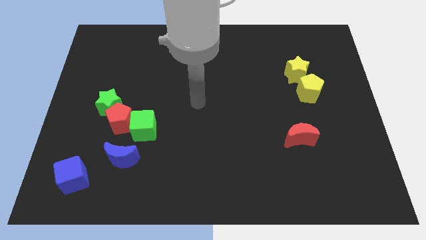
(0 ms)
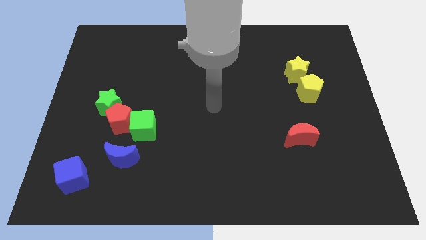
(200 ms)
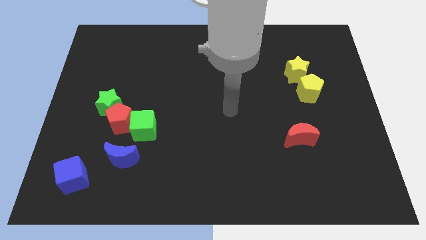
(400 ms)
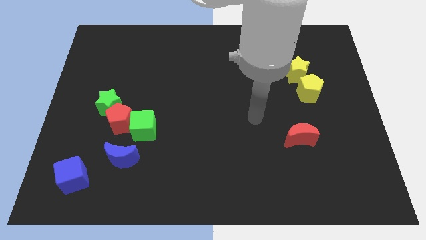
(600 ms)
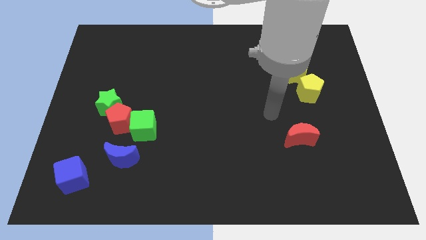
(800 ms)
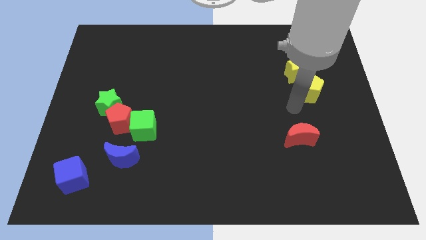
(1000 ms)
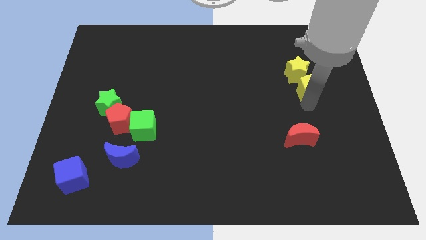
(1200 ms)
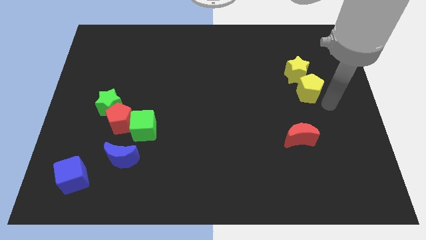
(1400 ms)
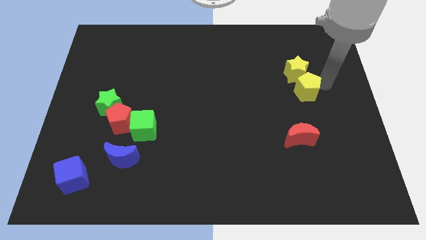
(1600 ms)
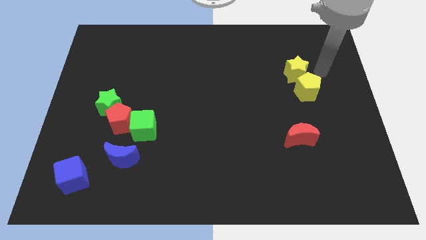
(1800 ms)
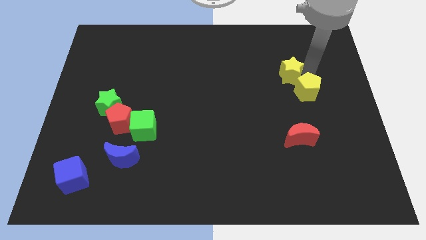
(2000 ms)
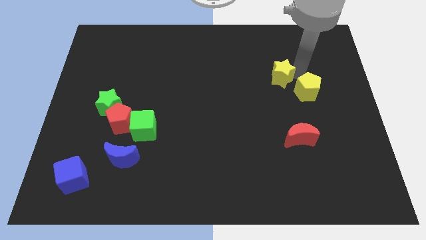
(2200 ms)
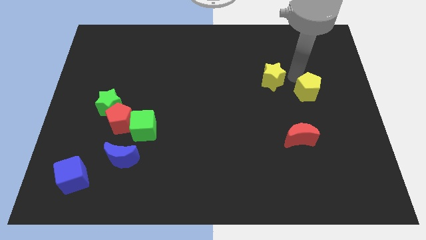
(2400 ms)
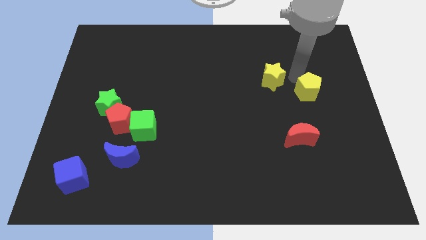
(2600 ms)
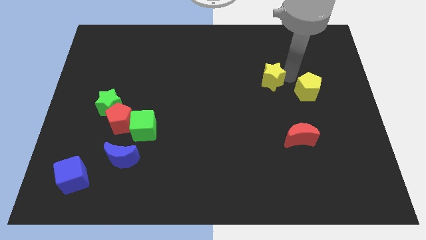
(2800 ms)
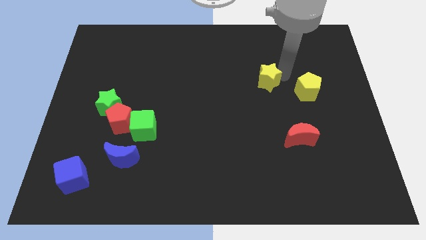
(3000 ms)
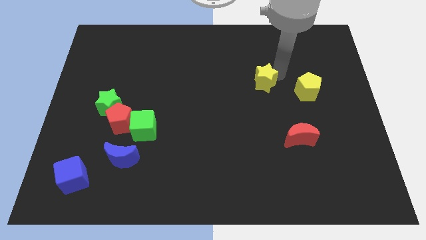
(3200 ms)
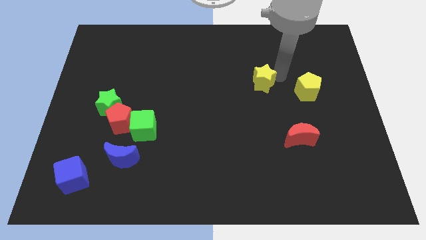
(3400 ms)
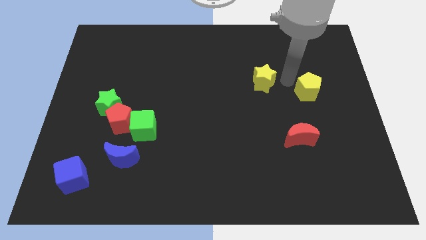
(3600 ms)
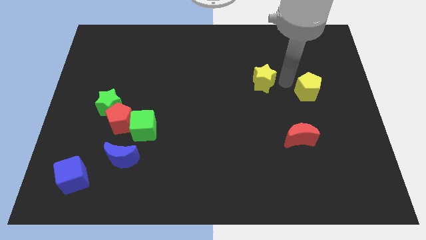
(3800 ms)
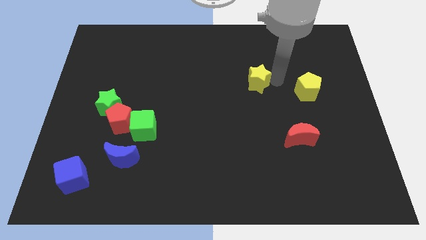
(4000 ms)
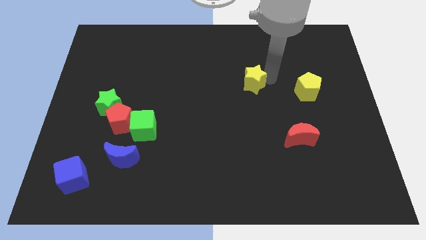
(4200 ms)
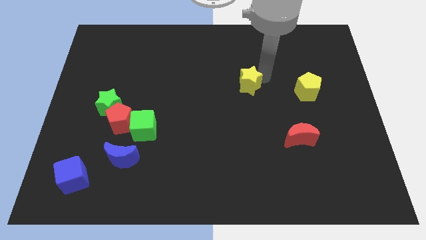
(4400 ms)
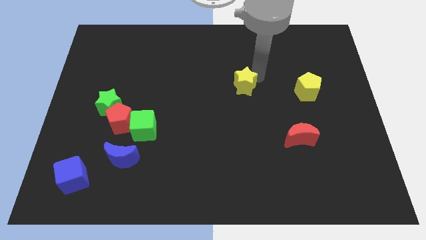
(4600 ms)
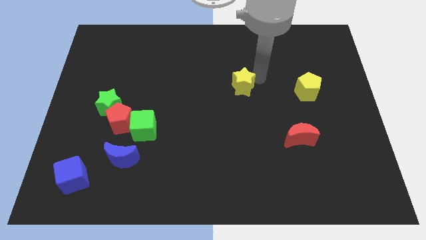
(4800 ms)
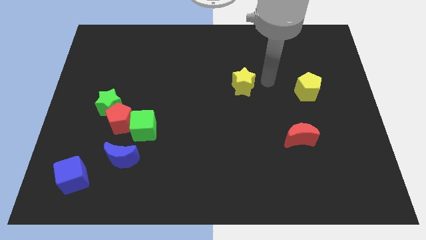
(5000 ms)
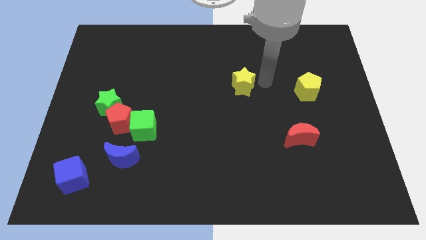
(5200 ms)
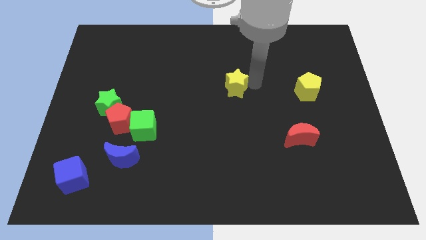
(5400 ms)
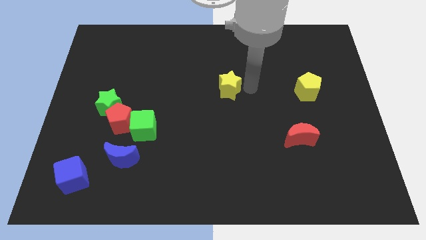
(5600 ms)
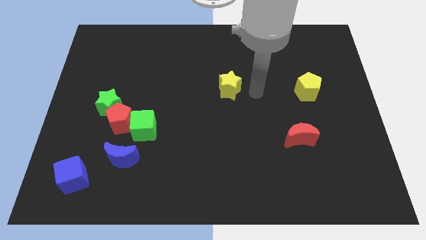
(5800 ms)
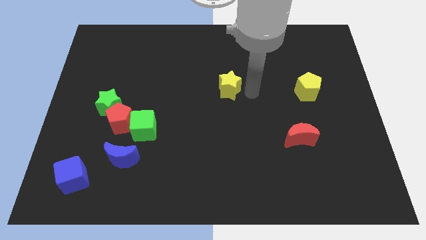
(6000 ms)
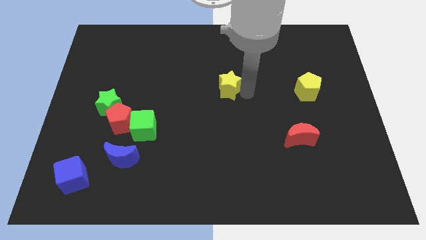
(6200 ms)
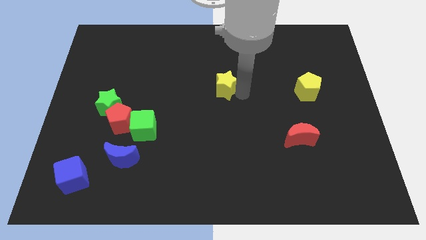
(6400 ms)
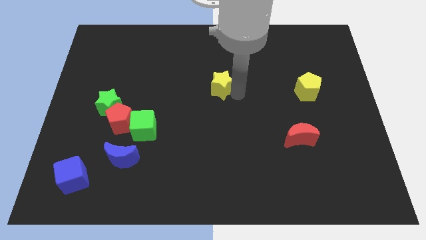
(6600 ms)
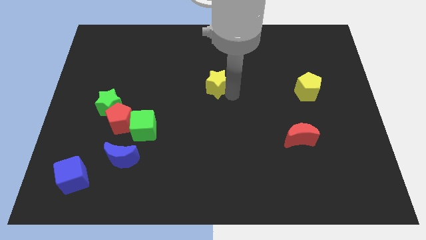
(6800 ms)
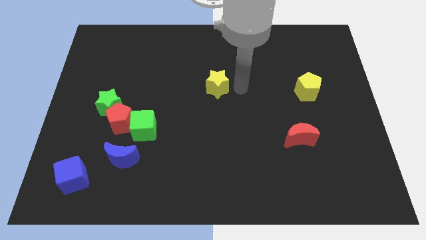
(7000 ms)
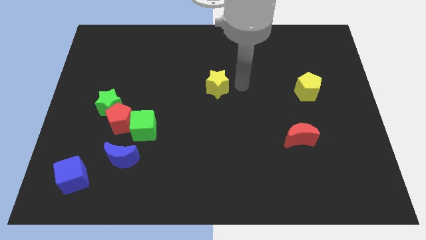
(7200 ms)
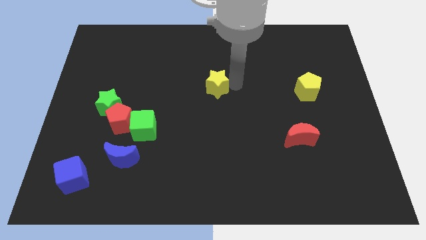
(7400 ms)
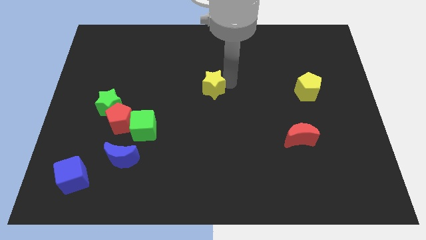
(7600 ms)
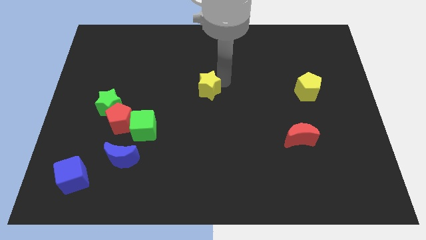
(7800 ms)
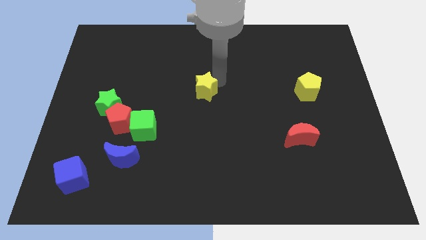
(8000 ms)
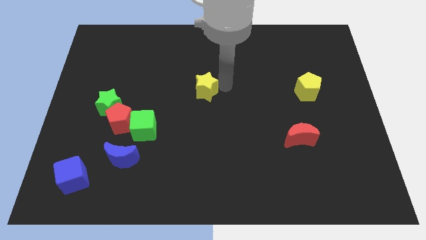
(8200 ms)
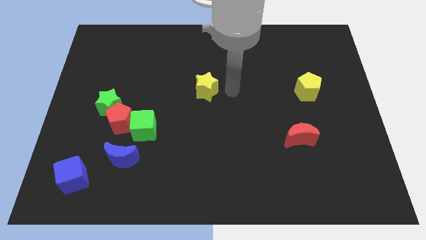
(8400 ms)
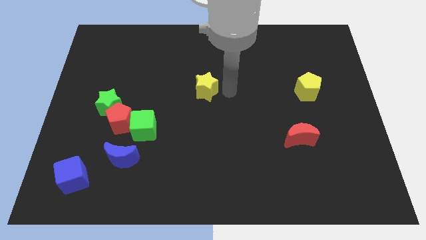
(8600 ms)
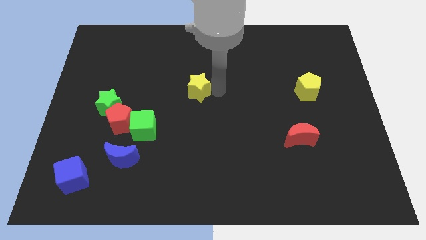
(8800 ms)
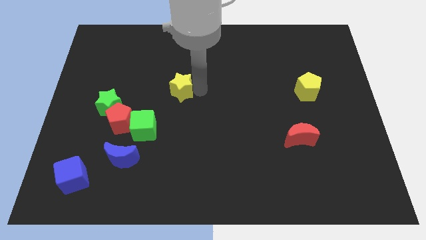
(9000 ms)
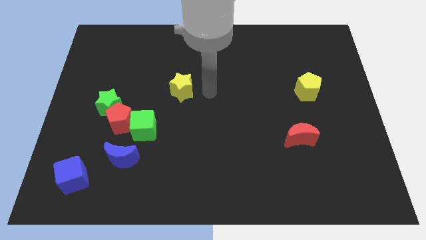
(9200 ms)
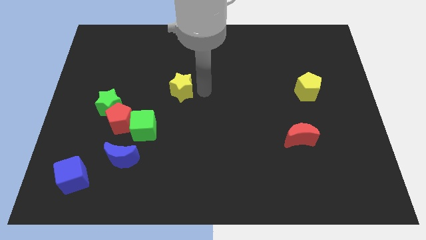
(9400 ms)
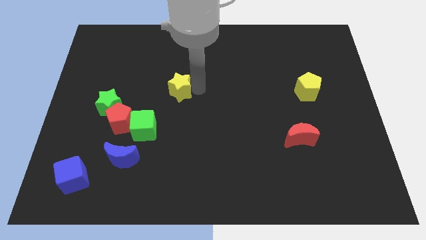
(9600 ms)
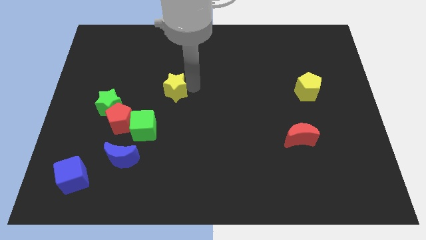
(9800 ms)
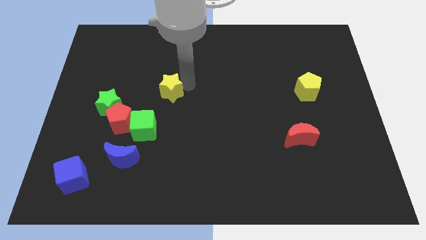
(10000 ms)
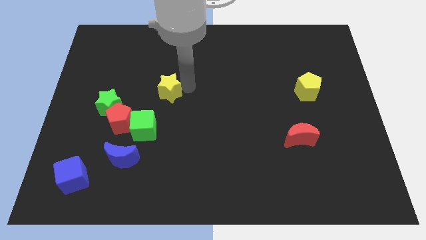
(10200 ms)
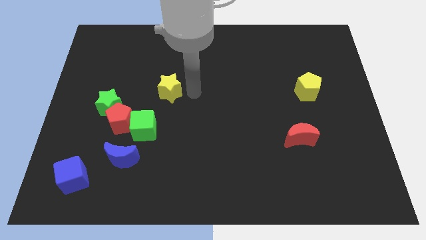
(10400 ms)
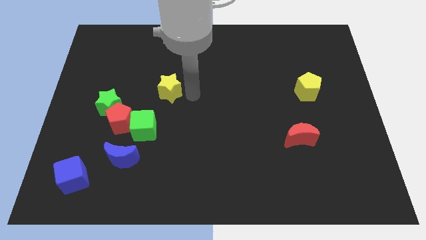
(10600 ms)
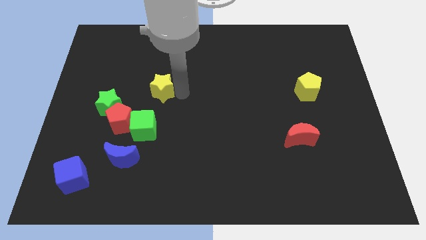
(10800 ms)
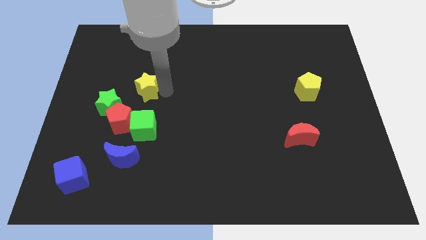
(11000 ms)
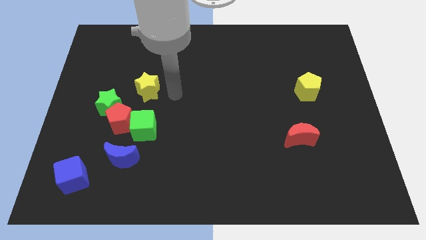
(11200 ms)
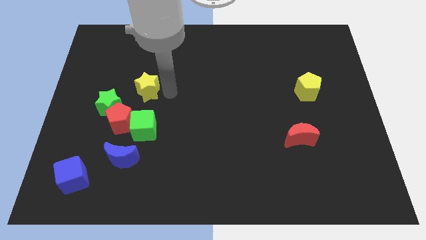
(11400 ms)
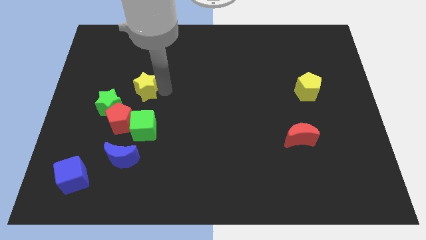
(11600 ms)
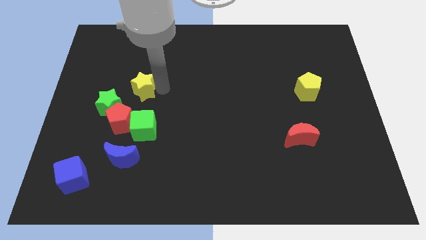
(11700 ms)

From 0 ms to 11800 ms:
slide the yellow star above the red pentagon

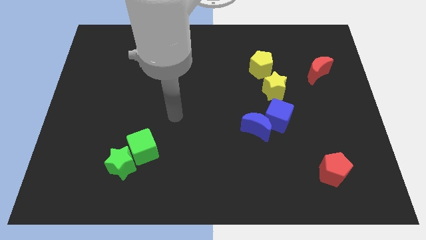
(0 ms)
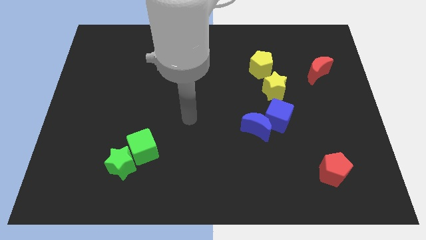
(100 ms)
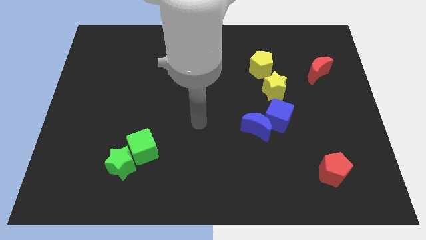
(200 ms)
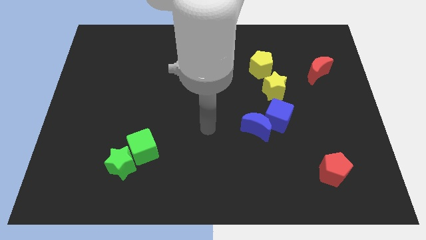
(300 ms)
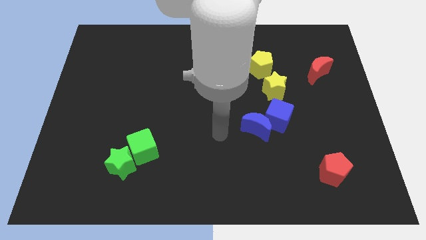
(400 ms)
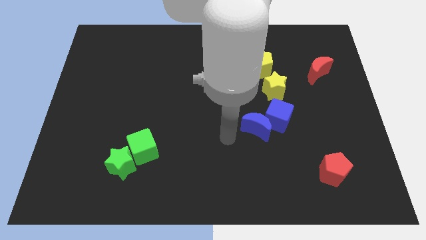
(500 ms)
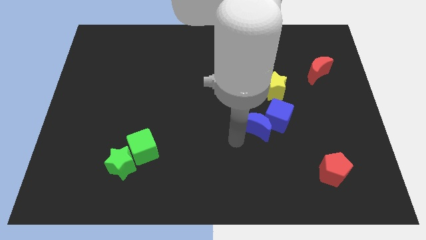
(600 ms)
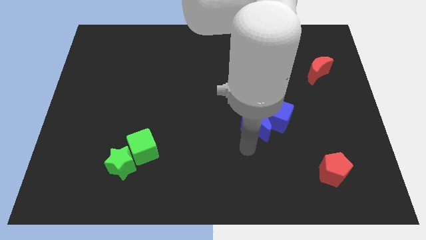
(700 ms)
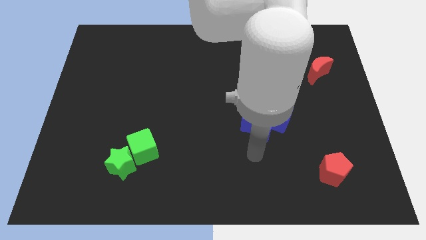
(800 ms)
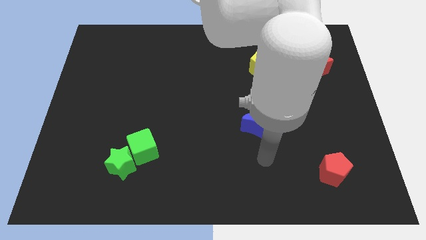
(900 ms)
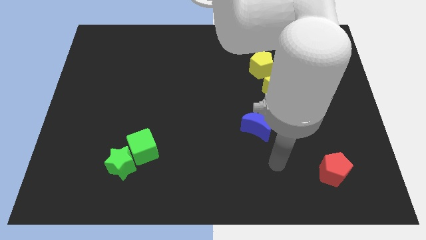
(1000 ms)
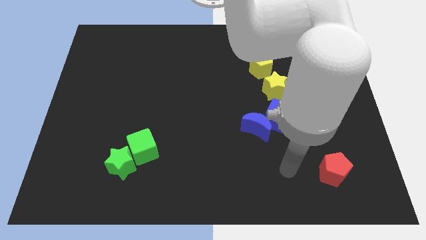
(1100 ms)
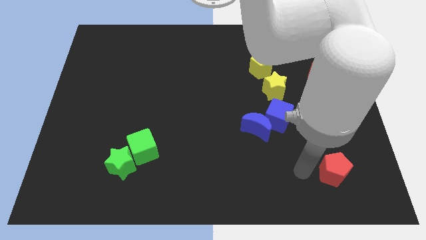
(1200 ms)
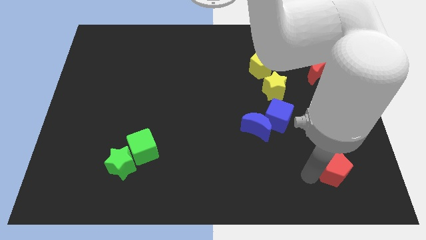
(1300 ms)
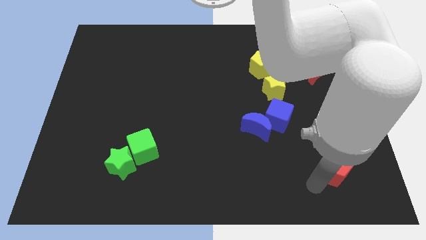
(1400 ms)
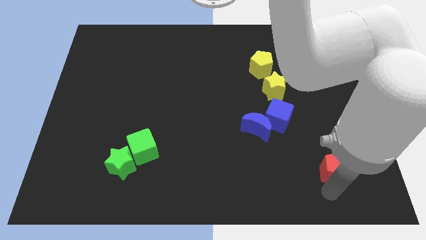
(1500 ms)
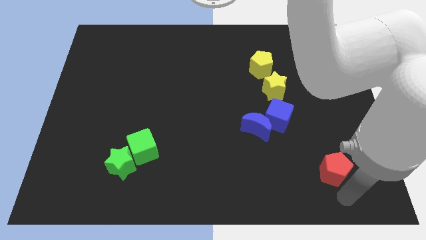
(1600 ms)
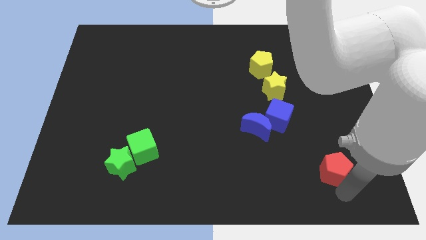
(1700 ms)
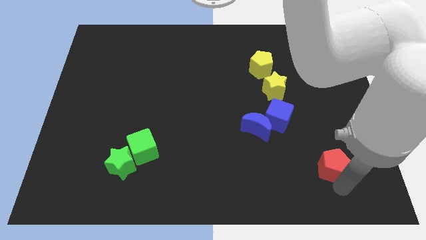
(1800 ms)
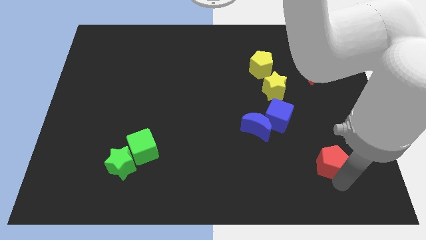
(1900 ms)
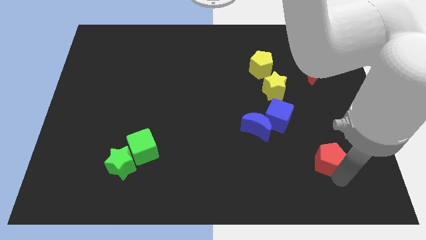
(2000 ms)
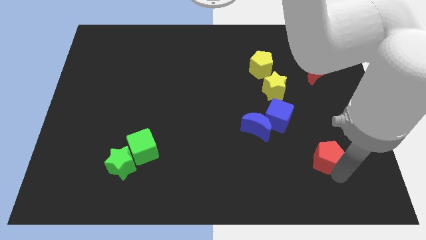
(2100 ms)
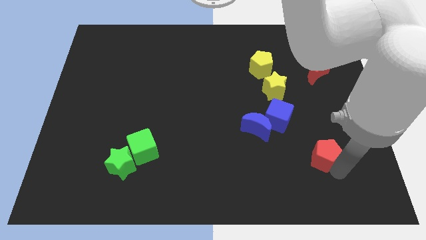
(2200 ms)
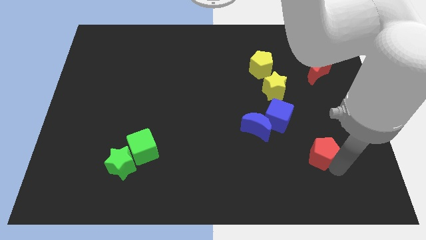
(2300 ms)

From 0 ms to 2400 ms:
put the red pentagon to the bottom right of the blue cube
